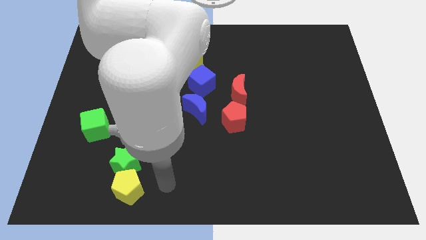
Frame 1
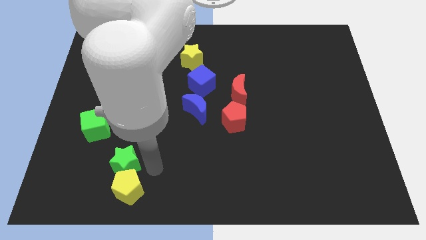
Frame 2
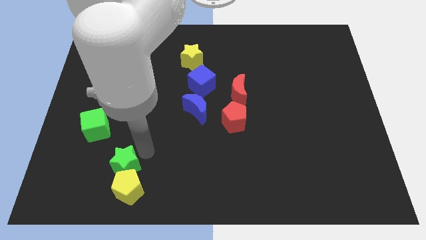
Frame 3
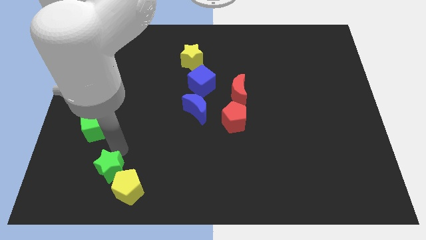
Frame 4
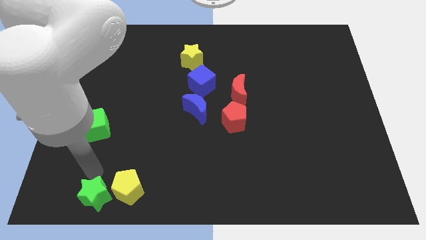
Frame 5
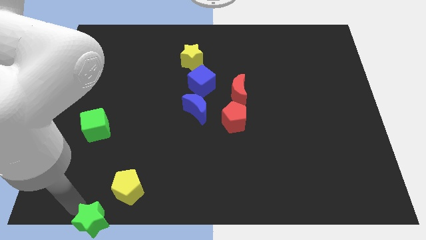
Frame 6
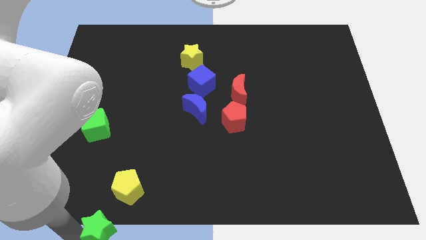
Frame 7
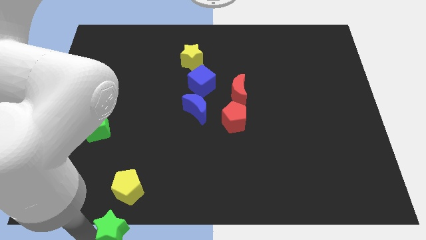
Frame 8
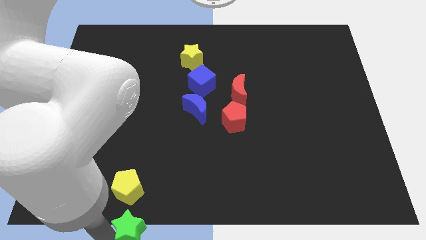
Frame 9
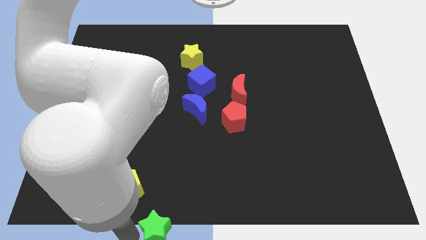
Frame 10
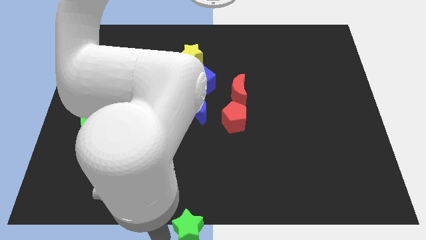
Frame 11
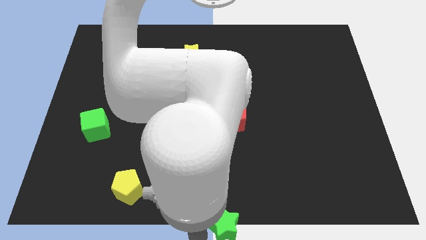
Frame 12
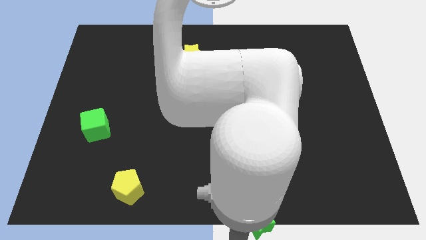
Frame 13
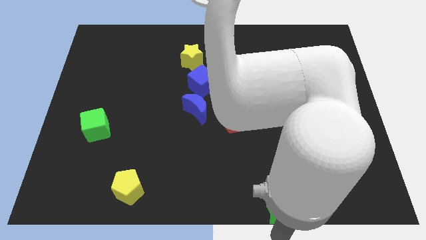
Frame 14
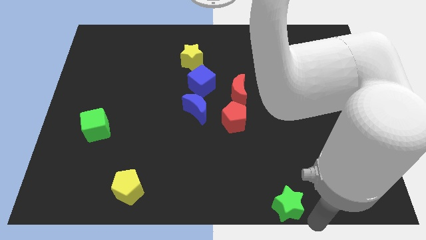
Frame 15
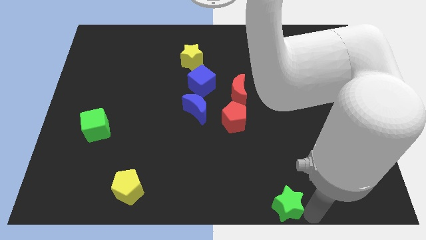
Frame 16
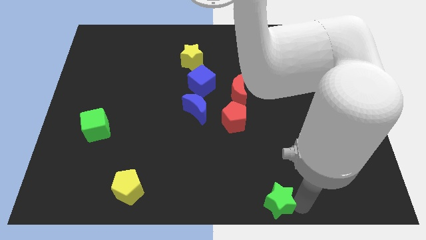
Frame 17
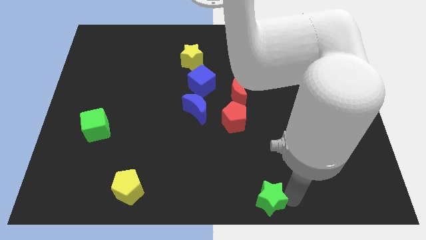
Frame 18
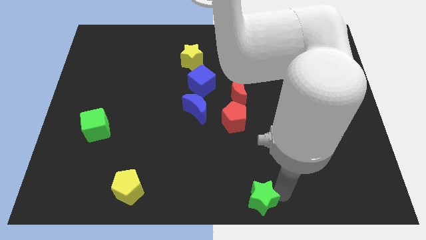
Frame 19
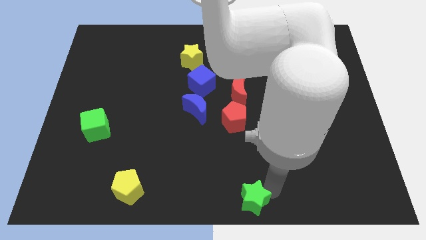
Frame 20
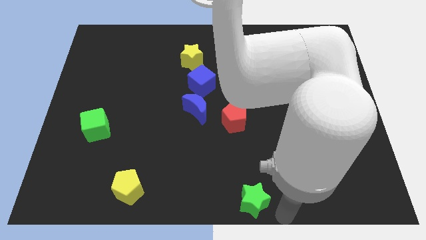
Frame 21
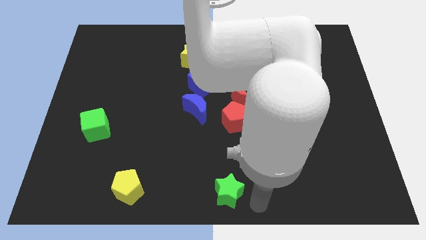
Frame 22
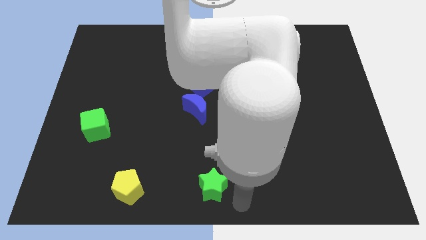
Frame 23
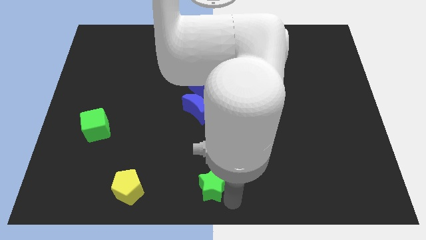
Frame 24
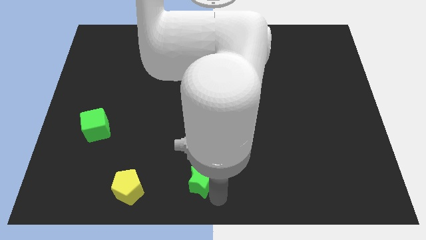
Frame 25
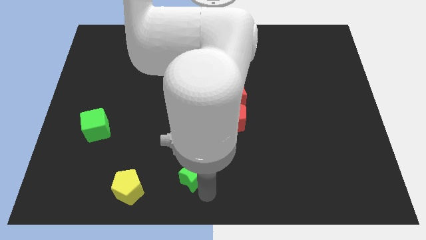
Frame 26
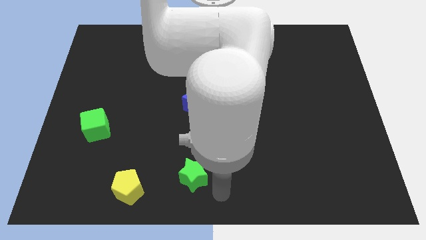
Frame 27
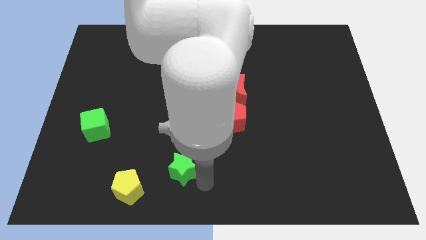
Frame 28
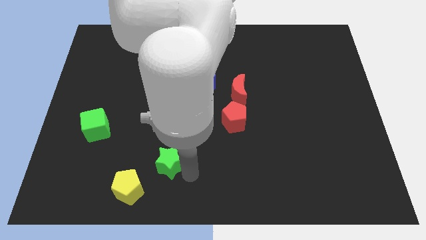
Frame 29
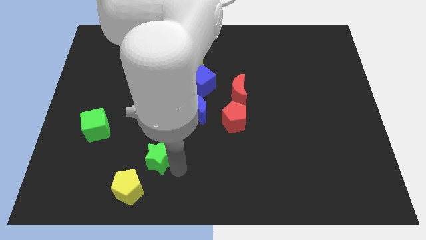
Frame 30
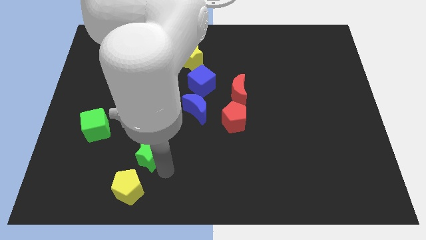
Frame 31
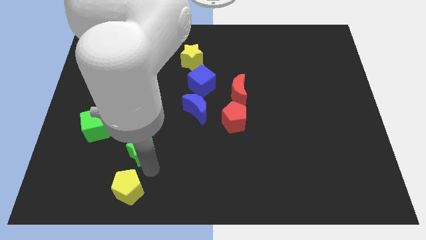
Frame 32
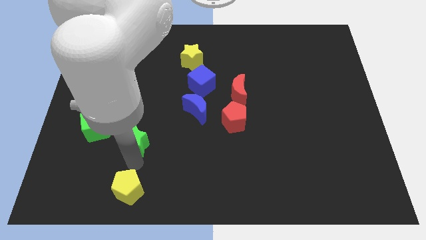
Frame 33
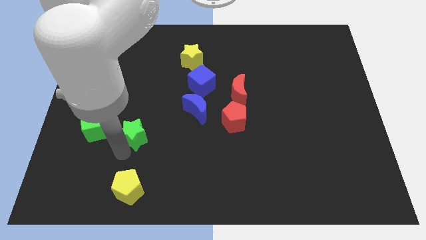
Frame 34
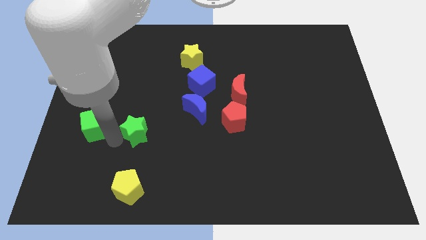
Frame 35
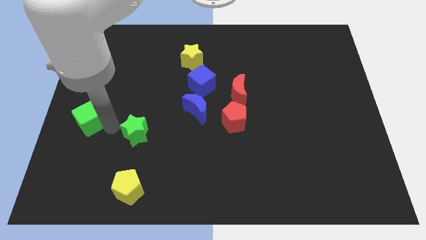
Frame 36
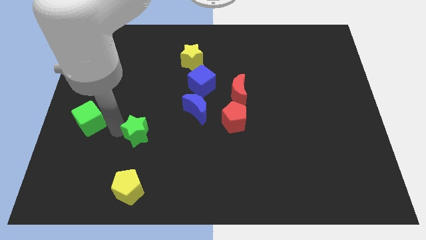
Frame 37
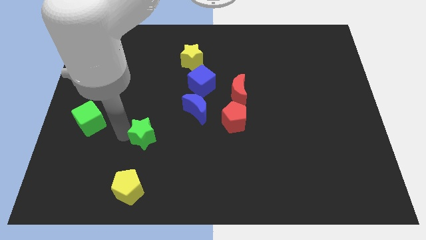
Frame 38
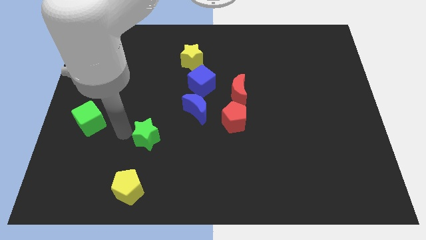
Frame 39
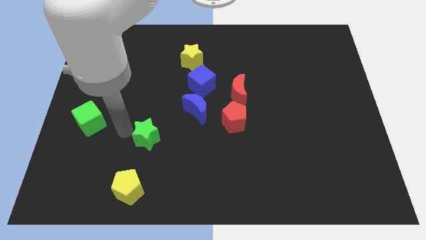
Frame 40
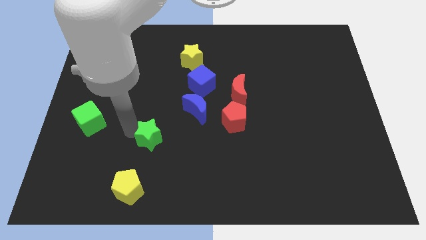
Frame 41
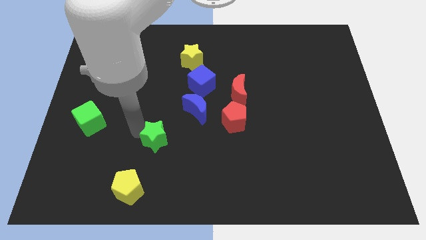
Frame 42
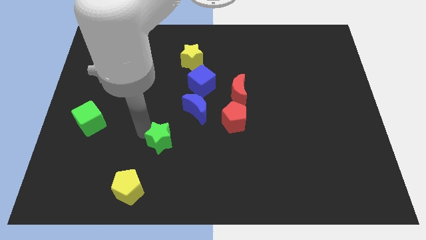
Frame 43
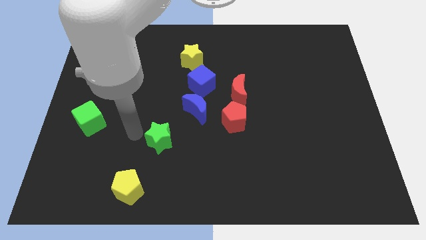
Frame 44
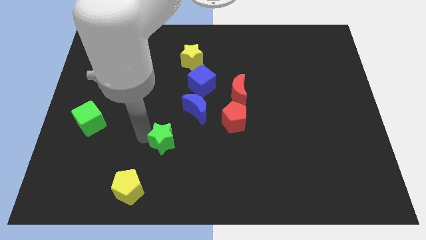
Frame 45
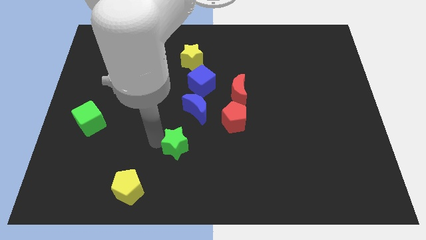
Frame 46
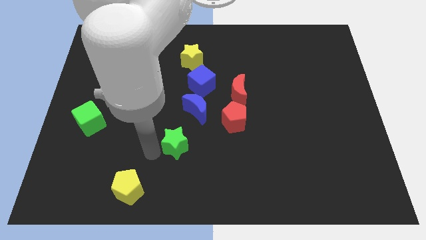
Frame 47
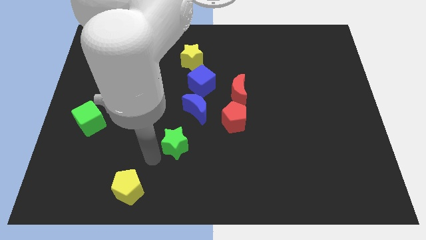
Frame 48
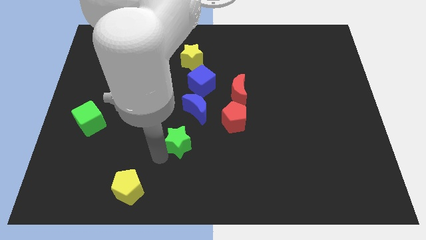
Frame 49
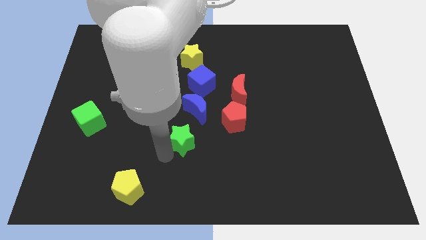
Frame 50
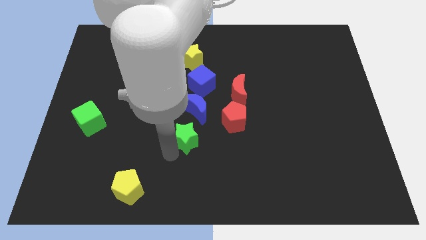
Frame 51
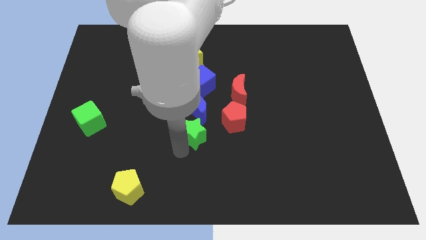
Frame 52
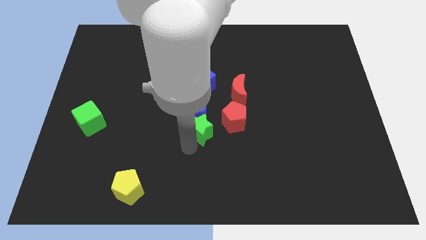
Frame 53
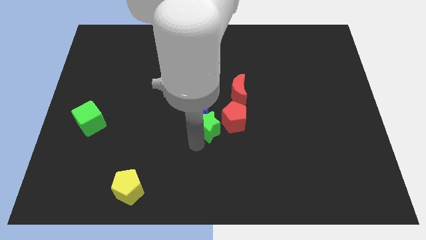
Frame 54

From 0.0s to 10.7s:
put the green star towards the red pentagon

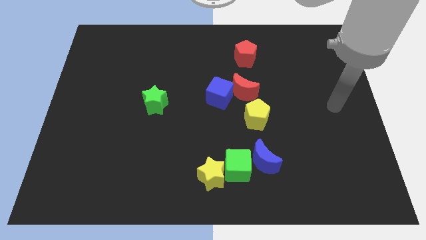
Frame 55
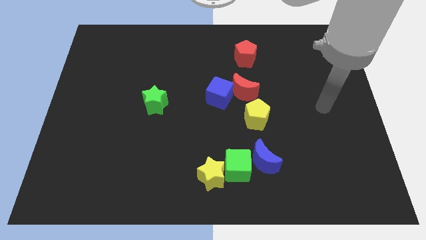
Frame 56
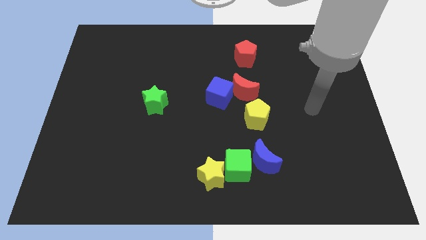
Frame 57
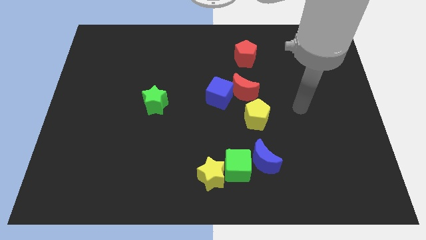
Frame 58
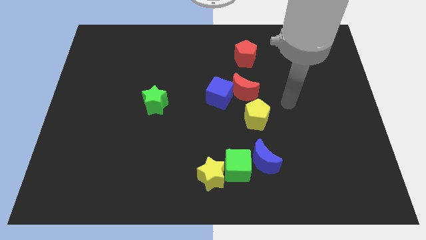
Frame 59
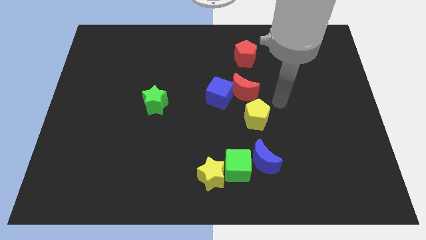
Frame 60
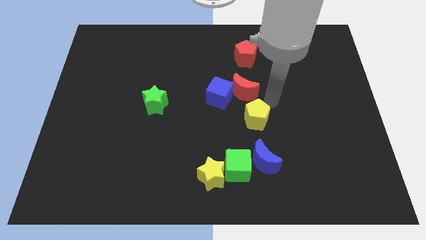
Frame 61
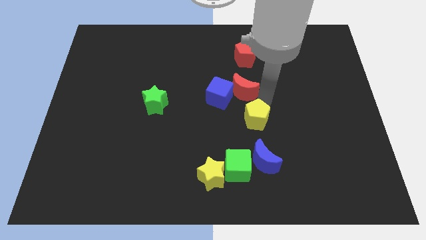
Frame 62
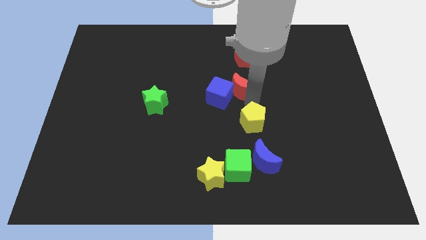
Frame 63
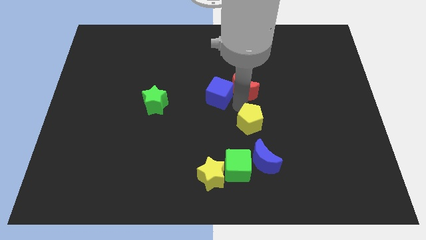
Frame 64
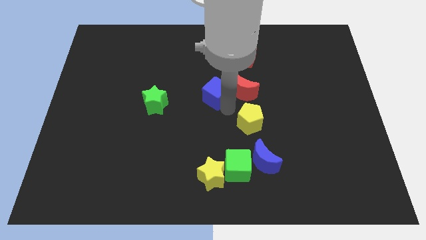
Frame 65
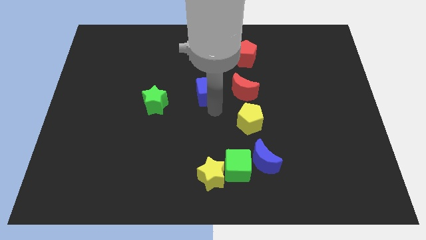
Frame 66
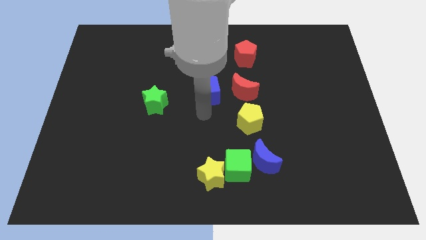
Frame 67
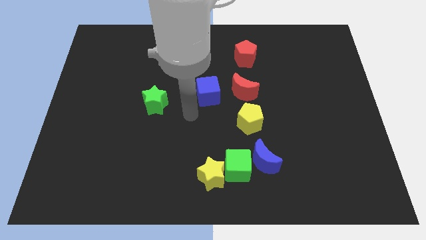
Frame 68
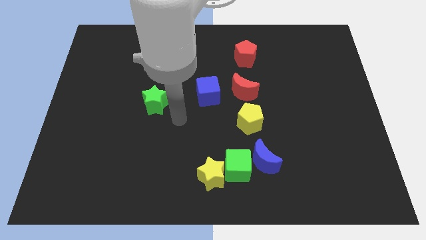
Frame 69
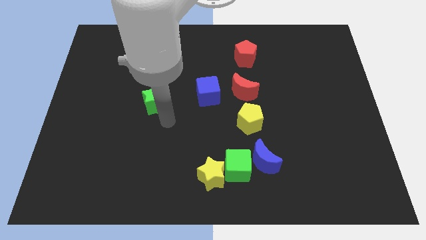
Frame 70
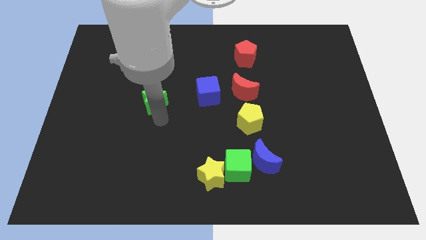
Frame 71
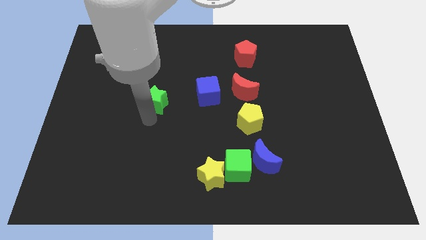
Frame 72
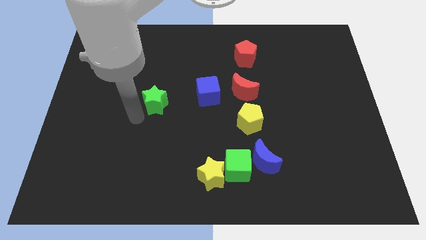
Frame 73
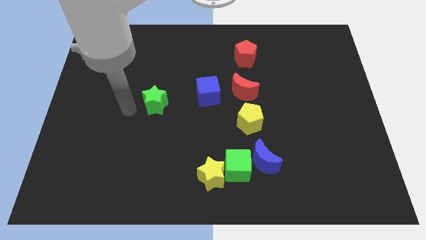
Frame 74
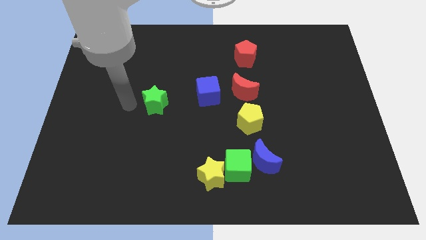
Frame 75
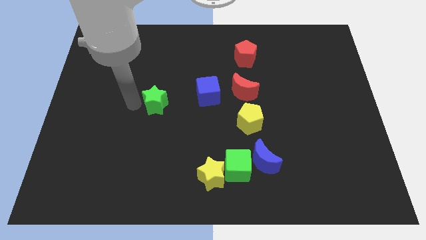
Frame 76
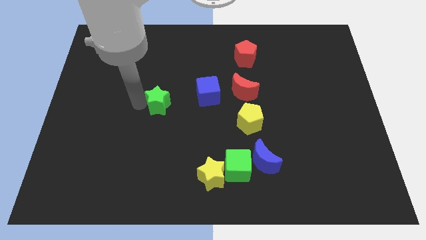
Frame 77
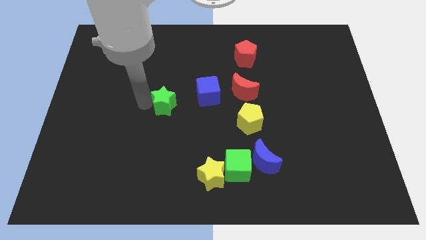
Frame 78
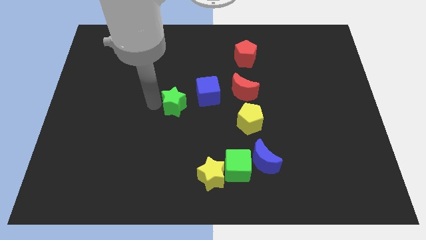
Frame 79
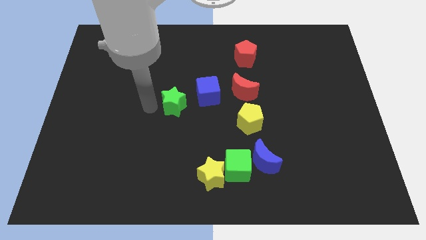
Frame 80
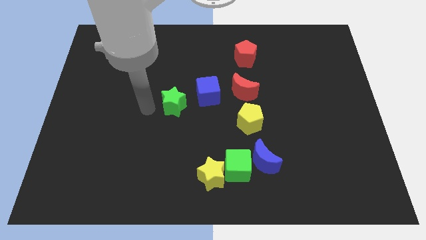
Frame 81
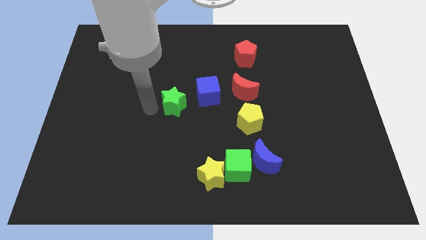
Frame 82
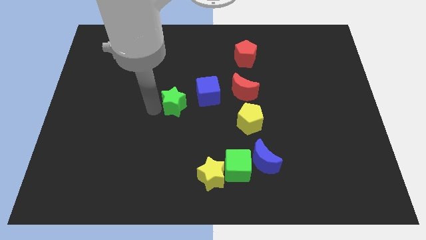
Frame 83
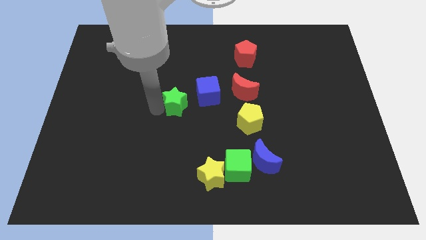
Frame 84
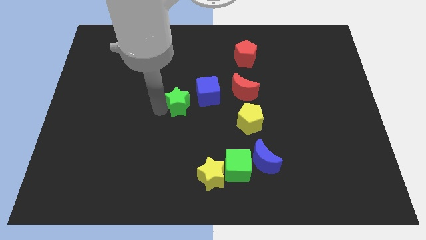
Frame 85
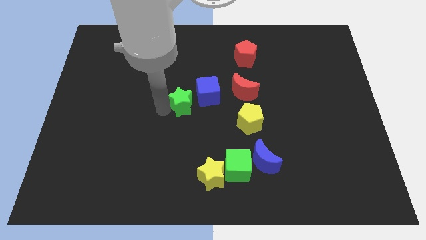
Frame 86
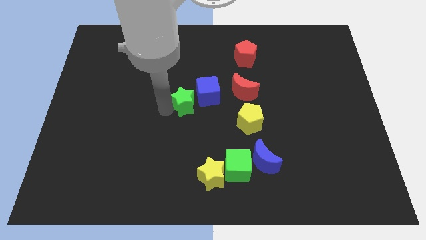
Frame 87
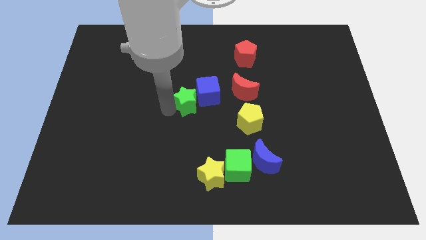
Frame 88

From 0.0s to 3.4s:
put the green star towards the blue cube
